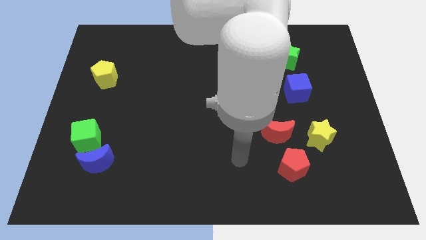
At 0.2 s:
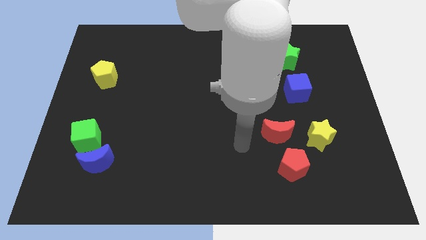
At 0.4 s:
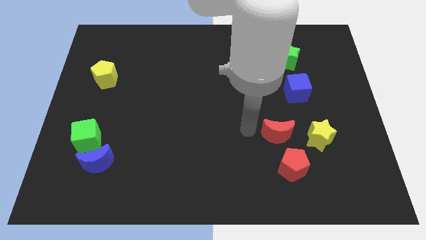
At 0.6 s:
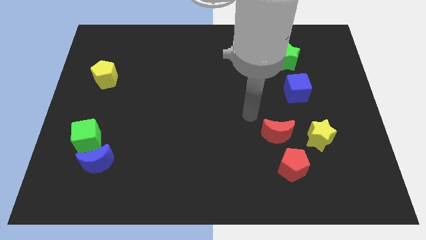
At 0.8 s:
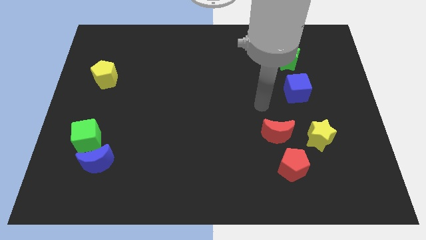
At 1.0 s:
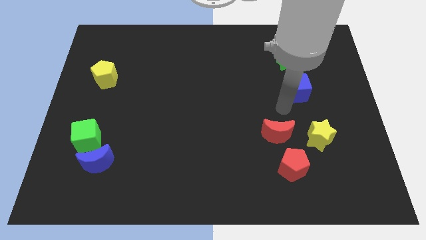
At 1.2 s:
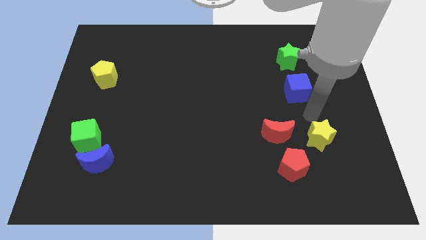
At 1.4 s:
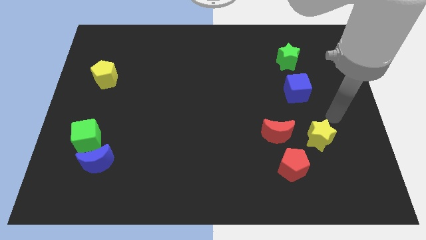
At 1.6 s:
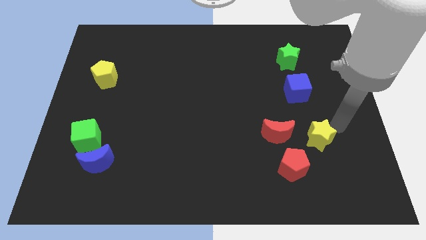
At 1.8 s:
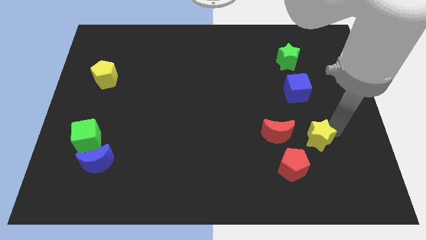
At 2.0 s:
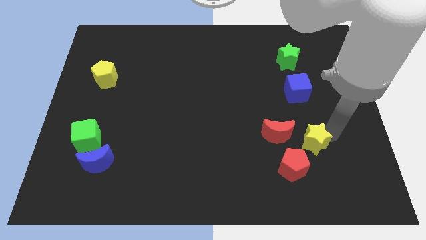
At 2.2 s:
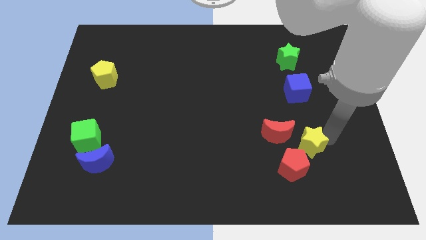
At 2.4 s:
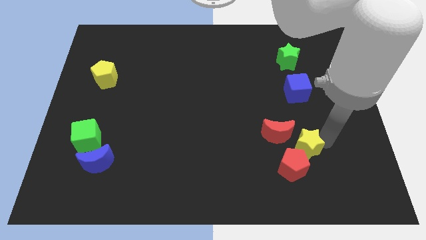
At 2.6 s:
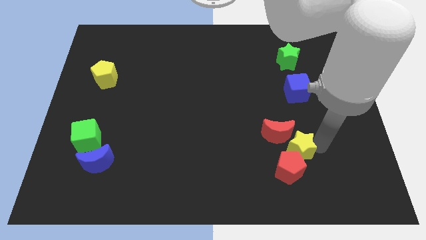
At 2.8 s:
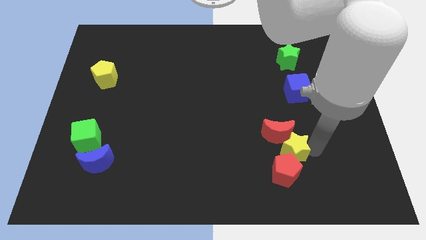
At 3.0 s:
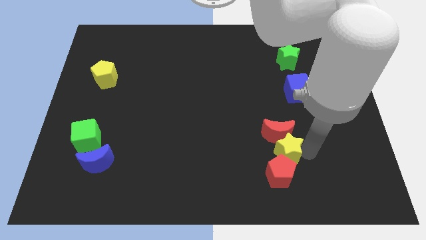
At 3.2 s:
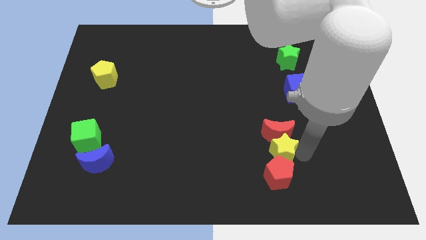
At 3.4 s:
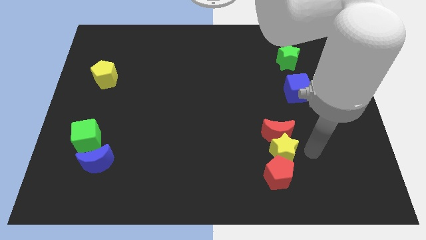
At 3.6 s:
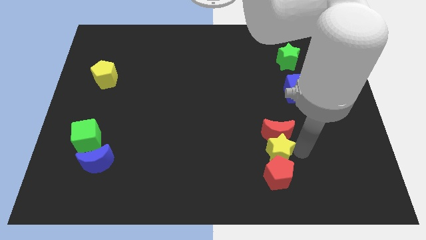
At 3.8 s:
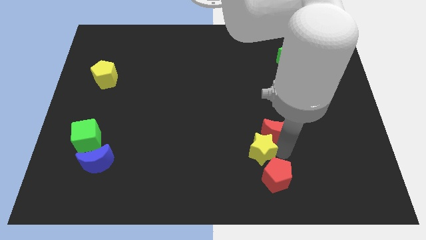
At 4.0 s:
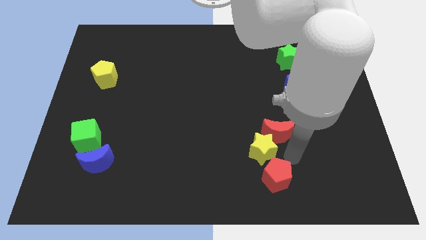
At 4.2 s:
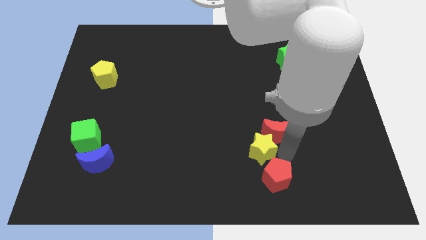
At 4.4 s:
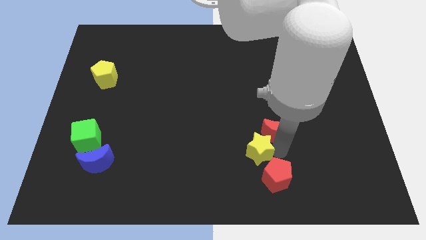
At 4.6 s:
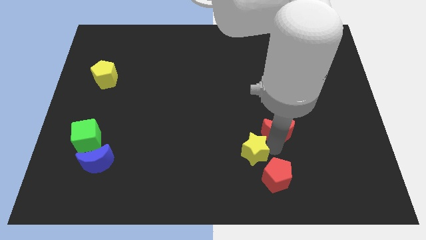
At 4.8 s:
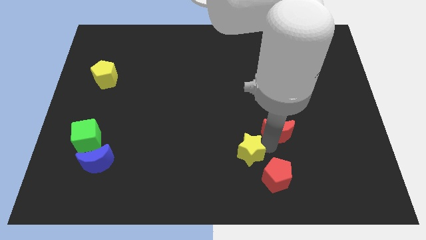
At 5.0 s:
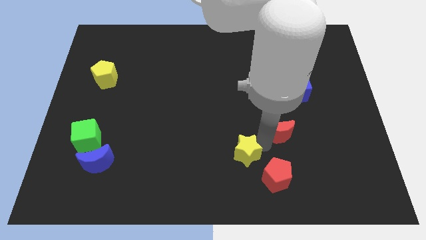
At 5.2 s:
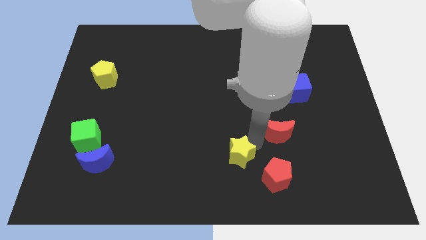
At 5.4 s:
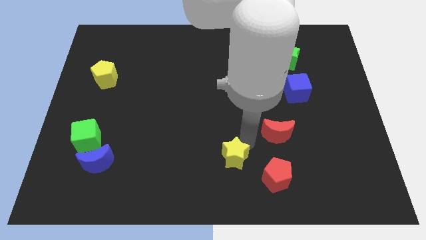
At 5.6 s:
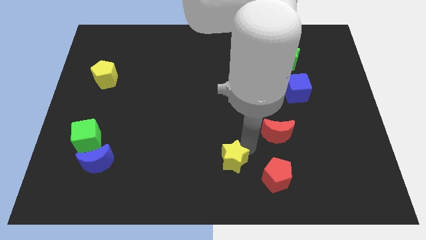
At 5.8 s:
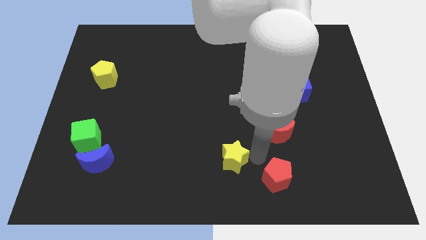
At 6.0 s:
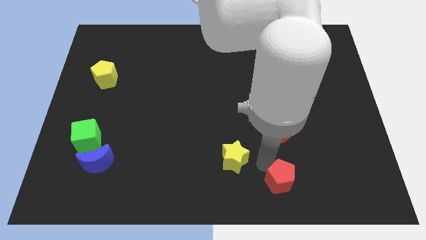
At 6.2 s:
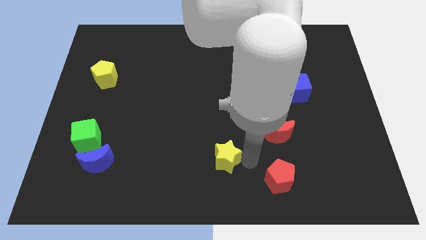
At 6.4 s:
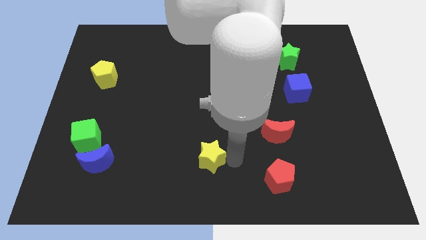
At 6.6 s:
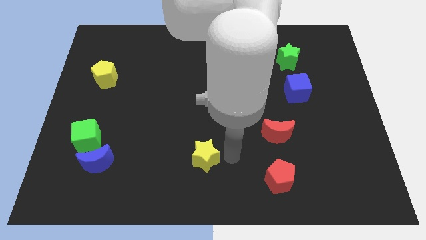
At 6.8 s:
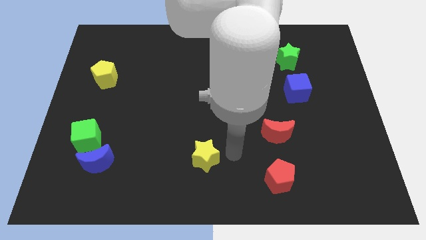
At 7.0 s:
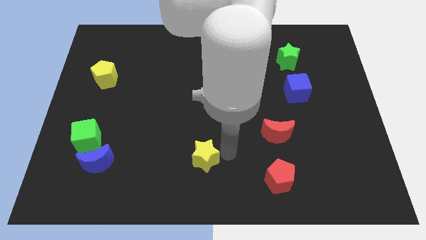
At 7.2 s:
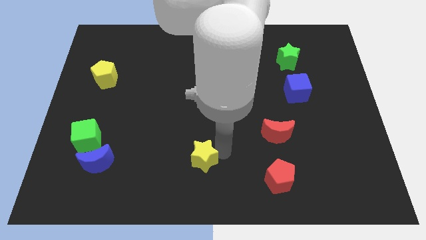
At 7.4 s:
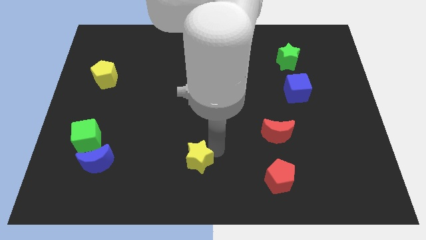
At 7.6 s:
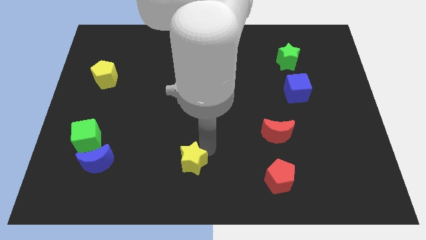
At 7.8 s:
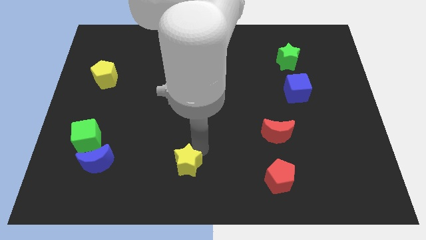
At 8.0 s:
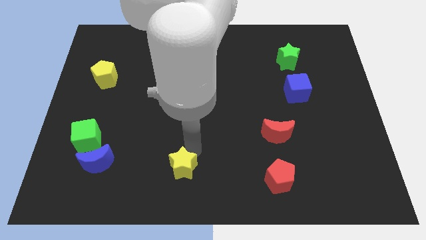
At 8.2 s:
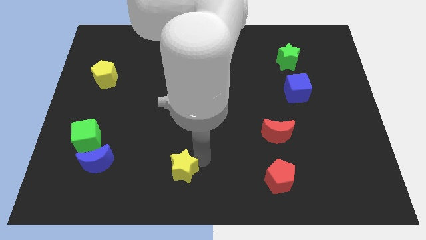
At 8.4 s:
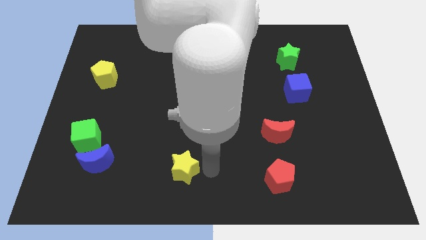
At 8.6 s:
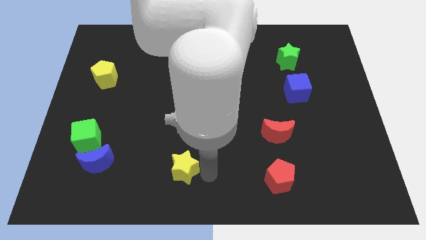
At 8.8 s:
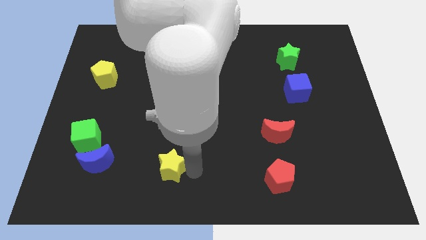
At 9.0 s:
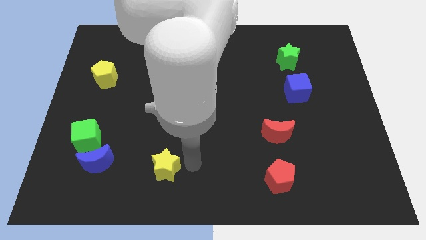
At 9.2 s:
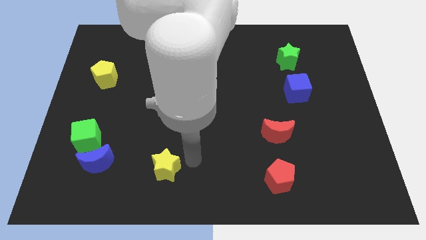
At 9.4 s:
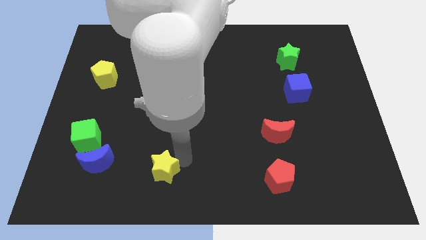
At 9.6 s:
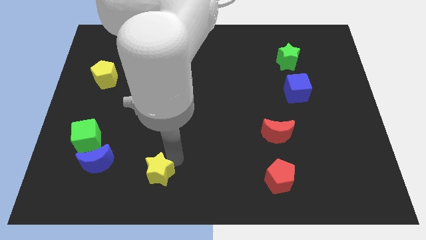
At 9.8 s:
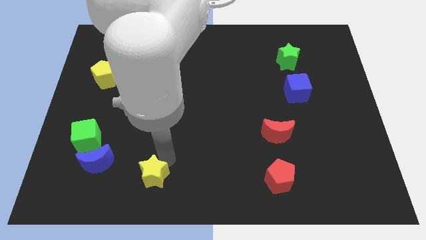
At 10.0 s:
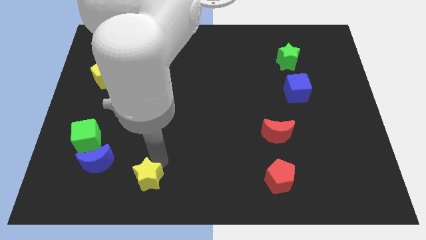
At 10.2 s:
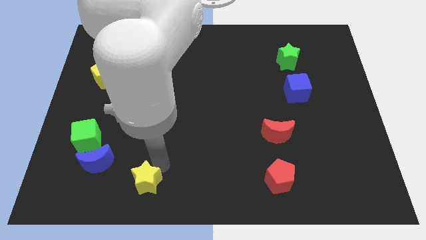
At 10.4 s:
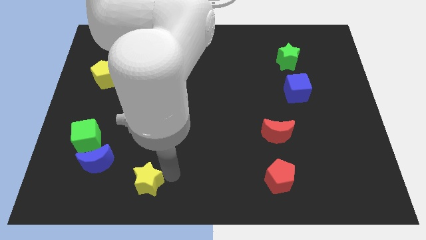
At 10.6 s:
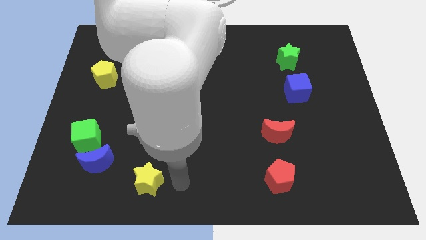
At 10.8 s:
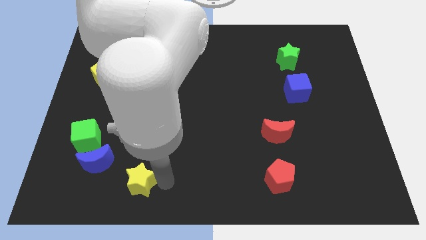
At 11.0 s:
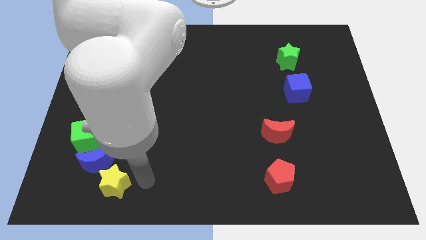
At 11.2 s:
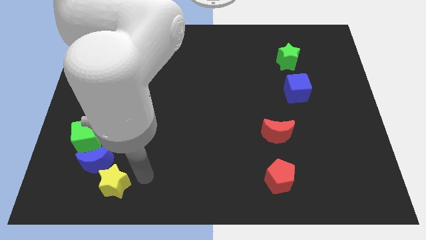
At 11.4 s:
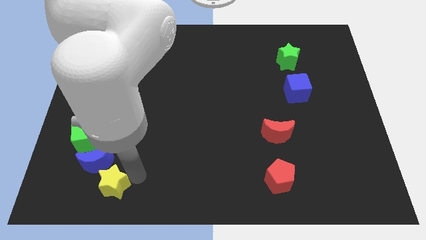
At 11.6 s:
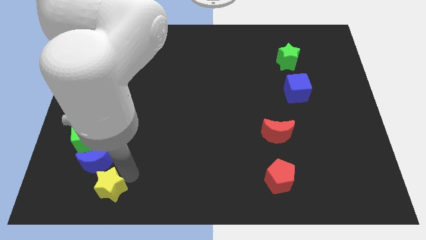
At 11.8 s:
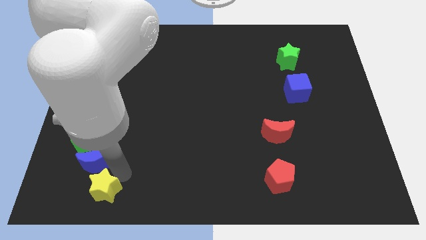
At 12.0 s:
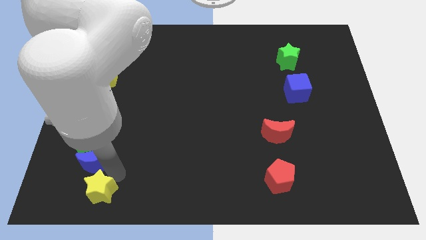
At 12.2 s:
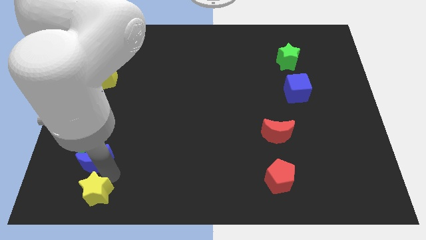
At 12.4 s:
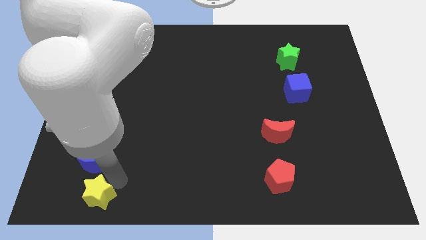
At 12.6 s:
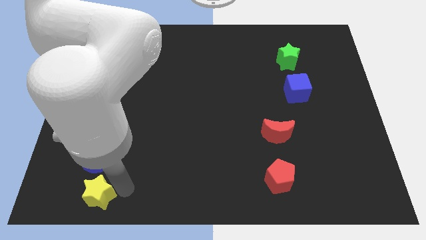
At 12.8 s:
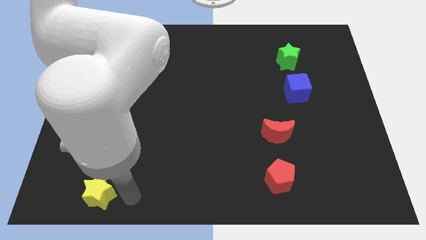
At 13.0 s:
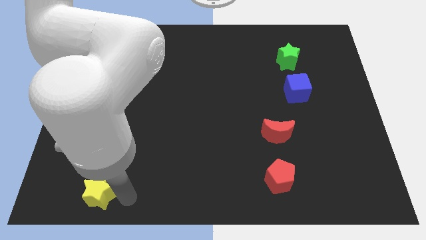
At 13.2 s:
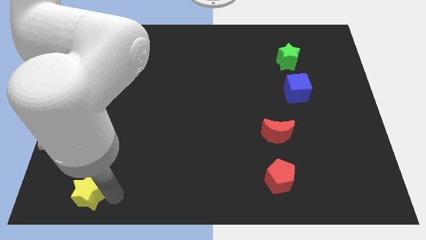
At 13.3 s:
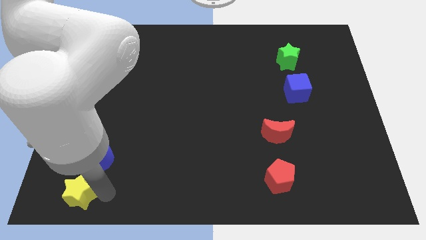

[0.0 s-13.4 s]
slide the yellow star to the bottom left

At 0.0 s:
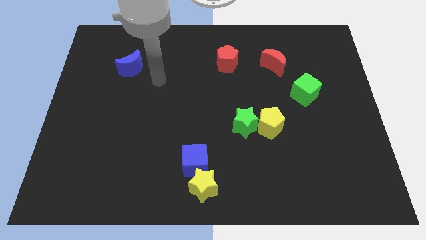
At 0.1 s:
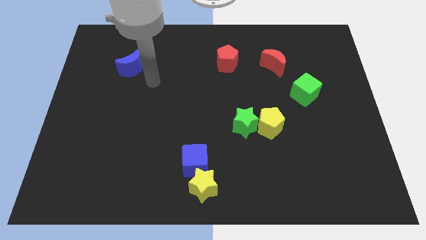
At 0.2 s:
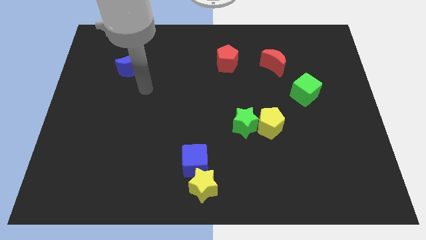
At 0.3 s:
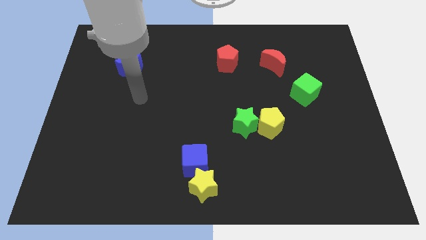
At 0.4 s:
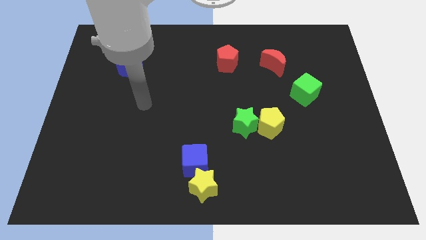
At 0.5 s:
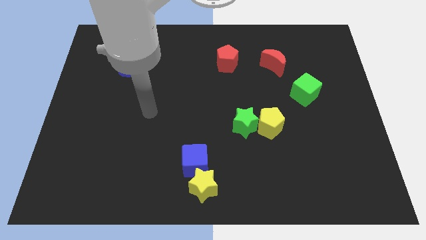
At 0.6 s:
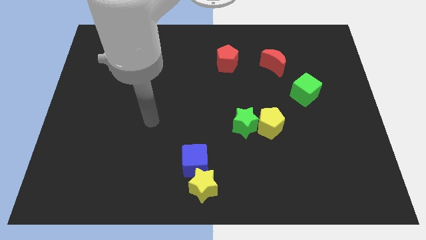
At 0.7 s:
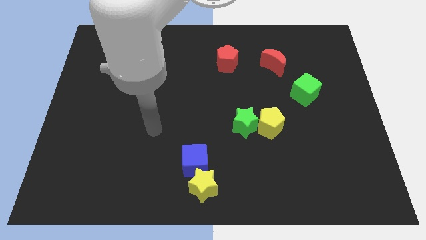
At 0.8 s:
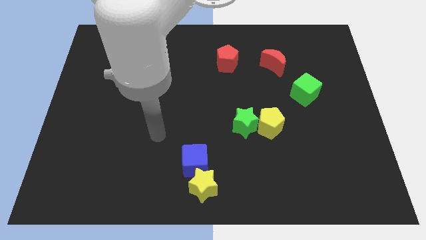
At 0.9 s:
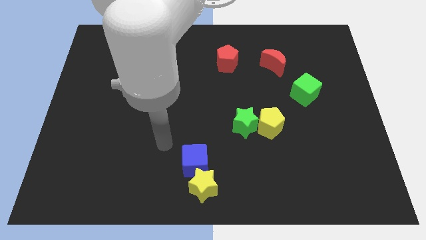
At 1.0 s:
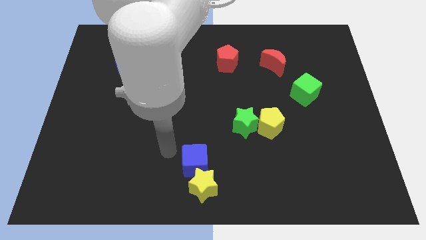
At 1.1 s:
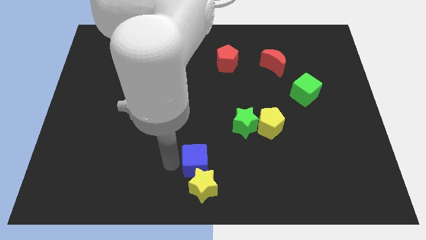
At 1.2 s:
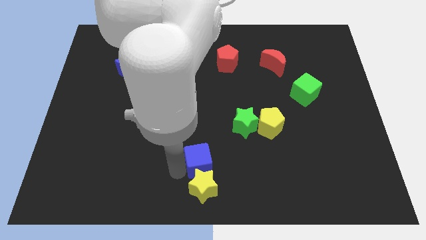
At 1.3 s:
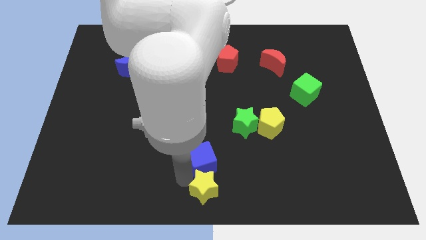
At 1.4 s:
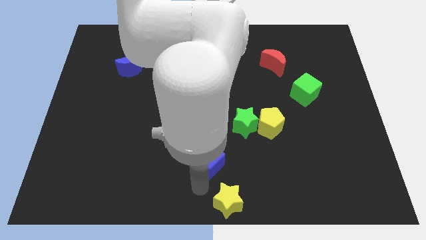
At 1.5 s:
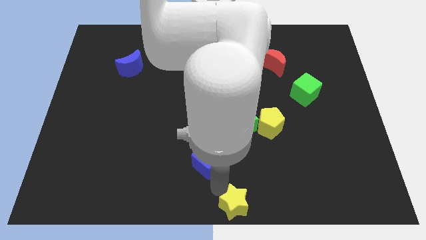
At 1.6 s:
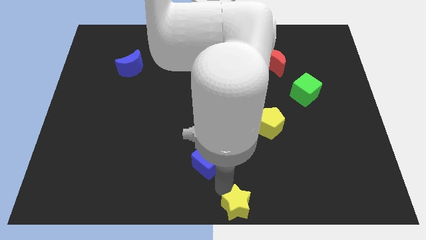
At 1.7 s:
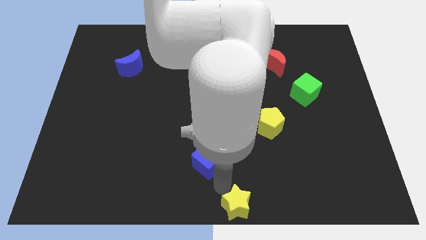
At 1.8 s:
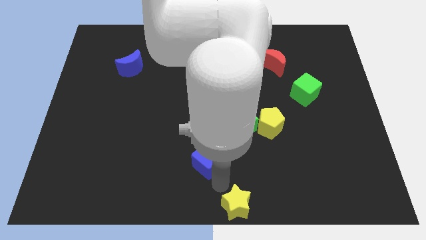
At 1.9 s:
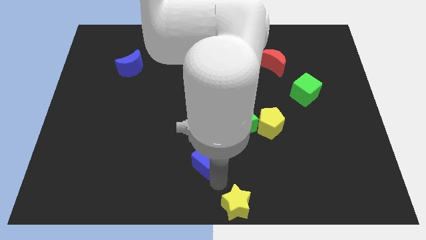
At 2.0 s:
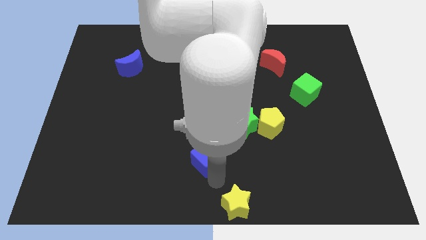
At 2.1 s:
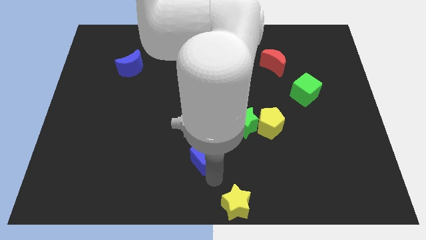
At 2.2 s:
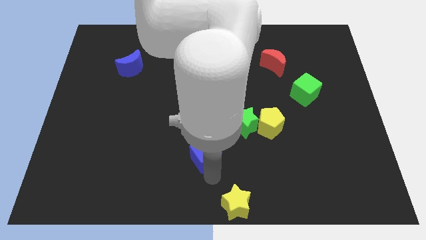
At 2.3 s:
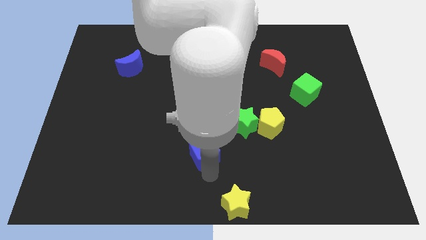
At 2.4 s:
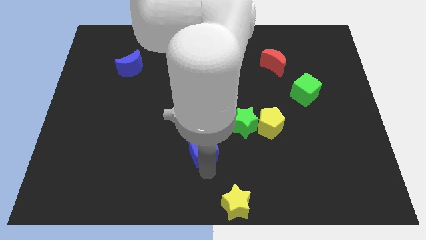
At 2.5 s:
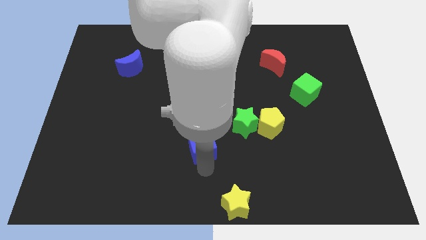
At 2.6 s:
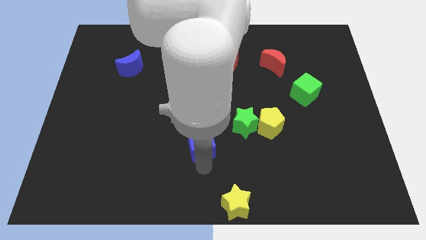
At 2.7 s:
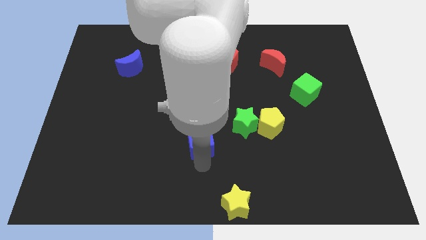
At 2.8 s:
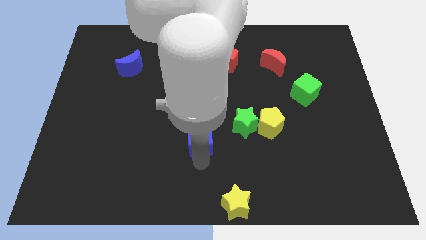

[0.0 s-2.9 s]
move the blue cube to the center
